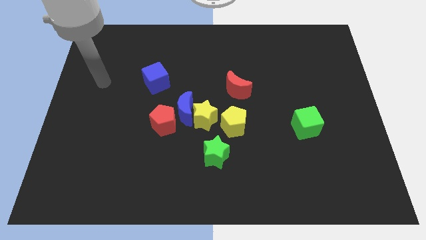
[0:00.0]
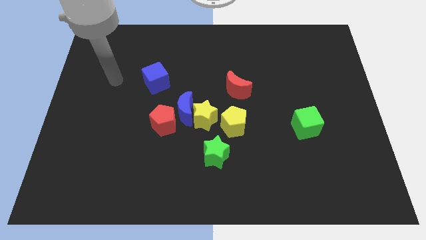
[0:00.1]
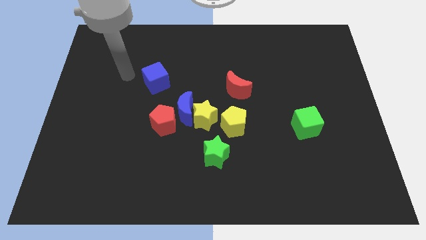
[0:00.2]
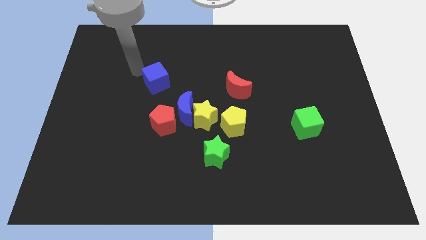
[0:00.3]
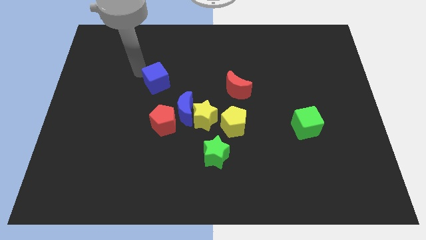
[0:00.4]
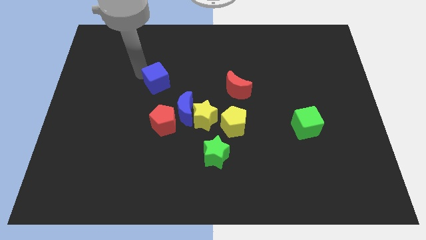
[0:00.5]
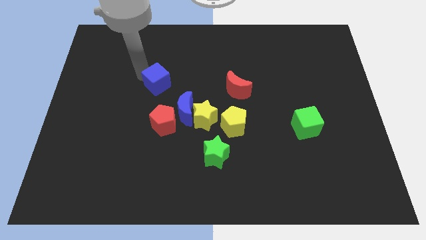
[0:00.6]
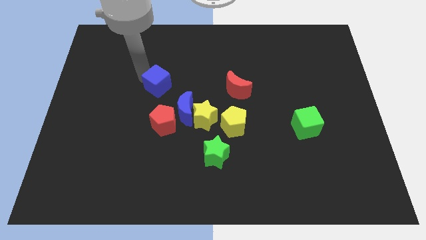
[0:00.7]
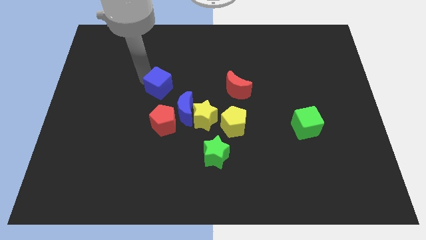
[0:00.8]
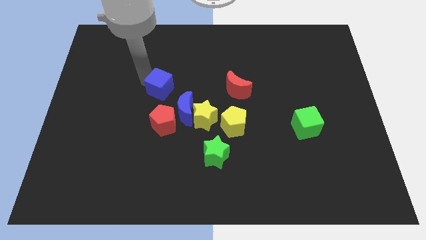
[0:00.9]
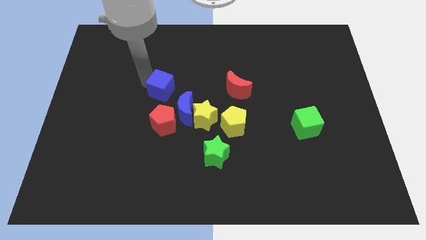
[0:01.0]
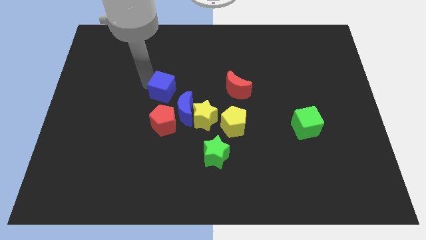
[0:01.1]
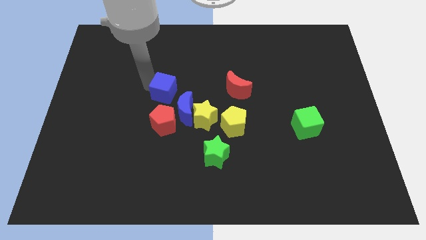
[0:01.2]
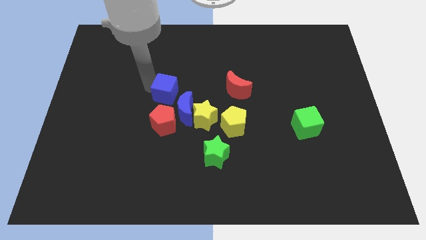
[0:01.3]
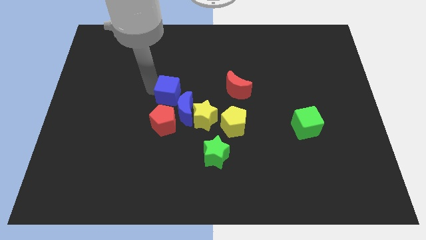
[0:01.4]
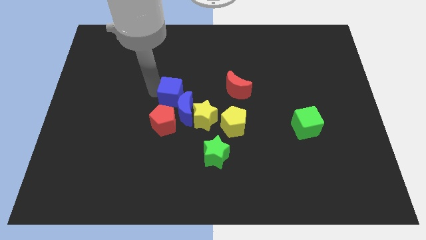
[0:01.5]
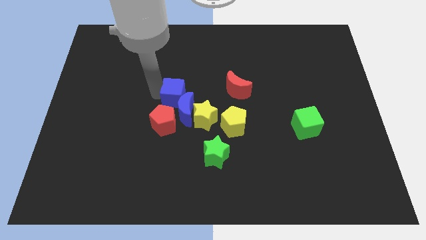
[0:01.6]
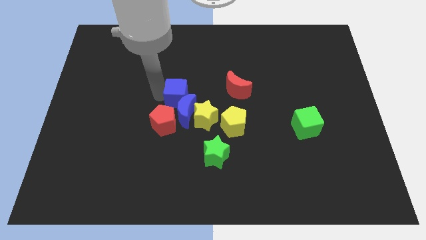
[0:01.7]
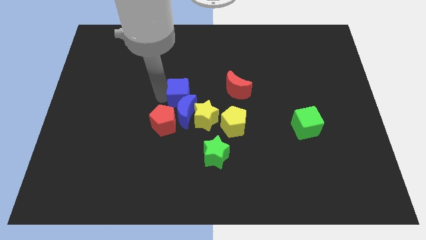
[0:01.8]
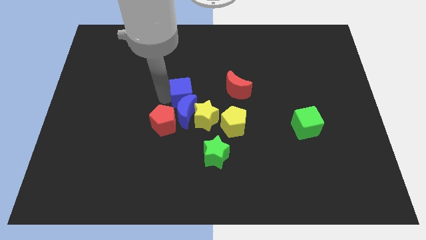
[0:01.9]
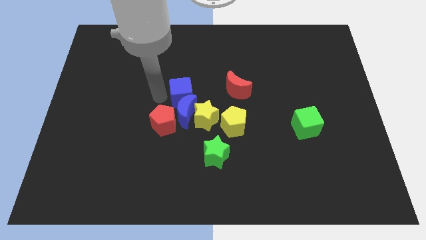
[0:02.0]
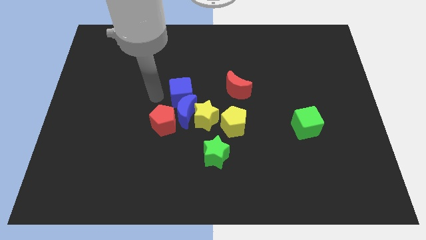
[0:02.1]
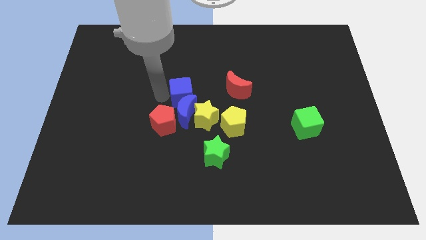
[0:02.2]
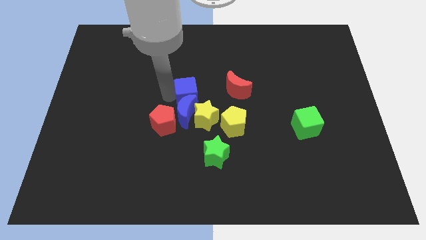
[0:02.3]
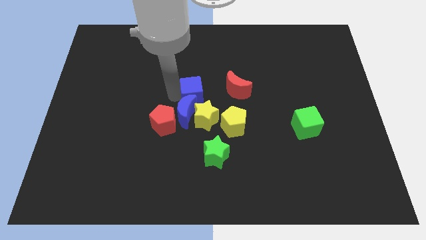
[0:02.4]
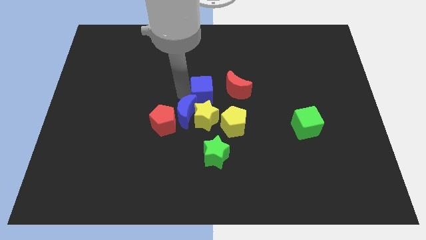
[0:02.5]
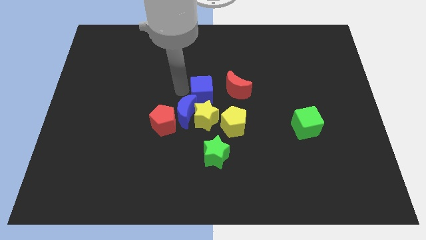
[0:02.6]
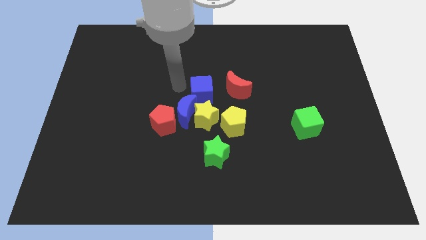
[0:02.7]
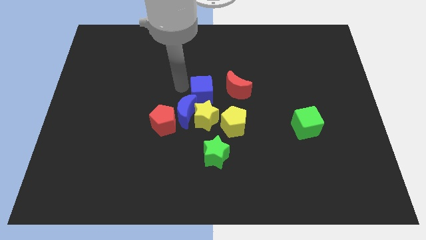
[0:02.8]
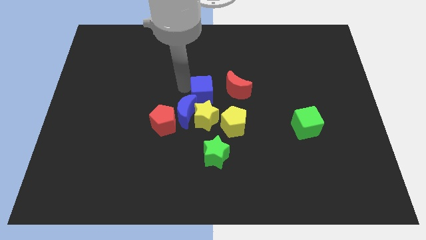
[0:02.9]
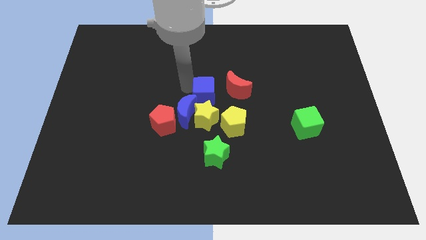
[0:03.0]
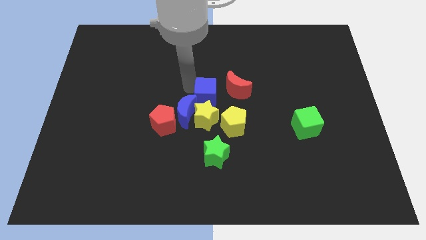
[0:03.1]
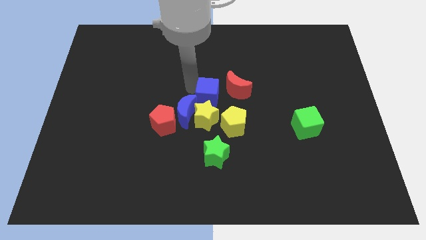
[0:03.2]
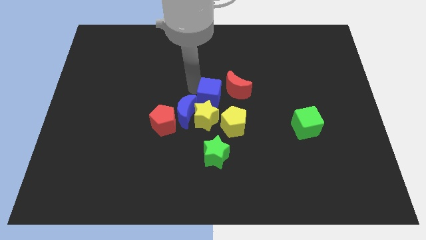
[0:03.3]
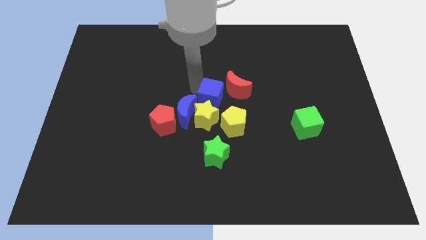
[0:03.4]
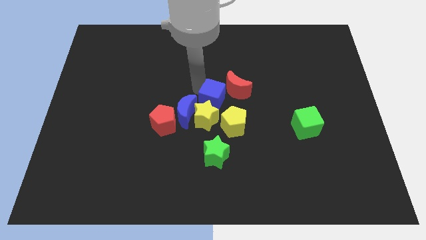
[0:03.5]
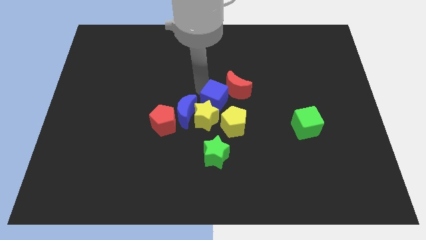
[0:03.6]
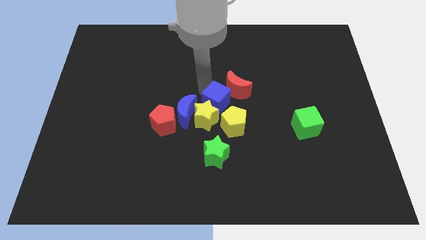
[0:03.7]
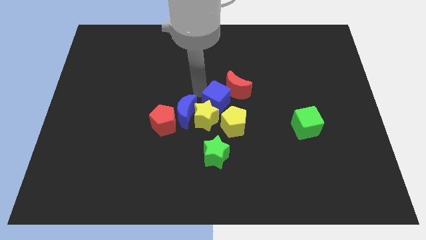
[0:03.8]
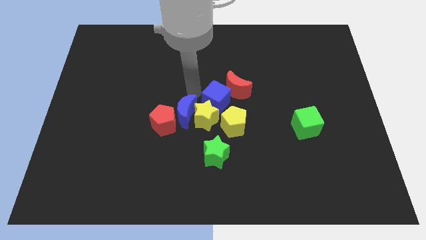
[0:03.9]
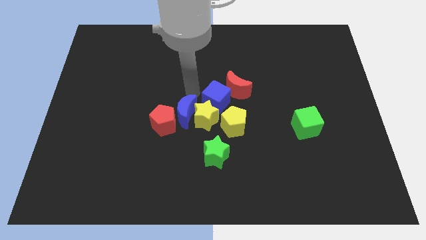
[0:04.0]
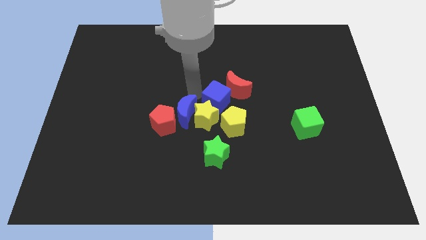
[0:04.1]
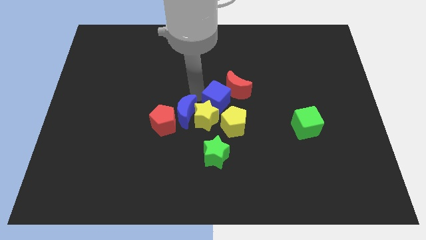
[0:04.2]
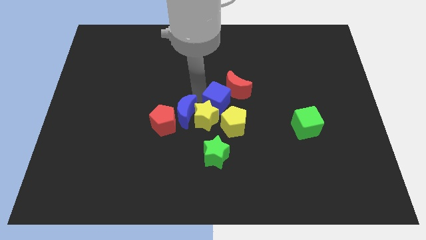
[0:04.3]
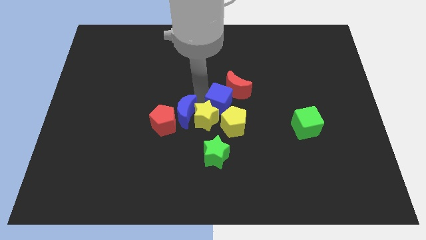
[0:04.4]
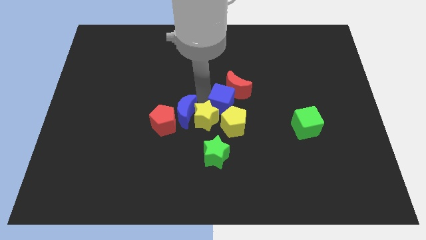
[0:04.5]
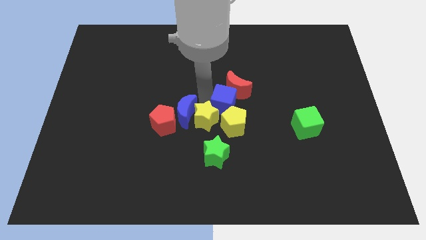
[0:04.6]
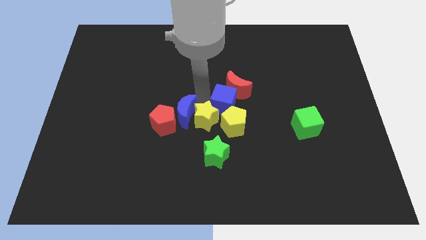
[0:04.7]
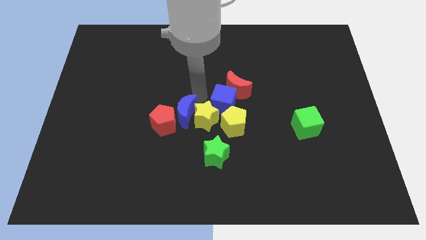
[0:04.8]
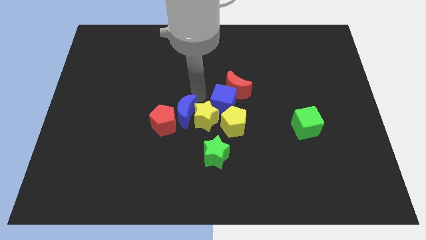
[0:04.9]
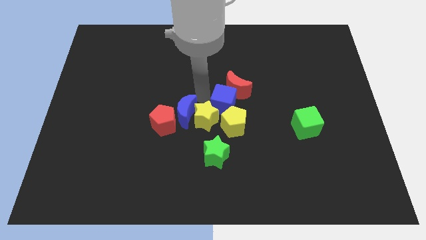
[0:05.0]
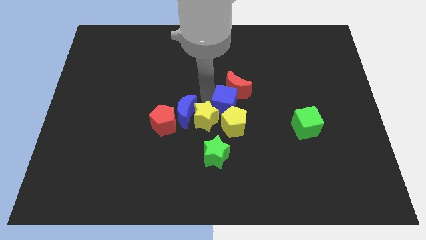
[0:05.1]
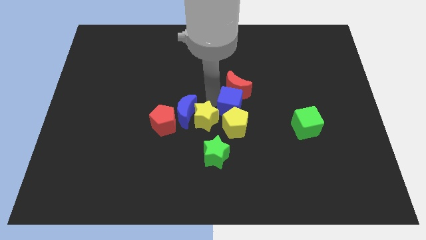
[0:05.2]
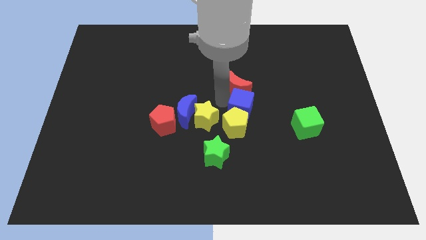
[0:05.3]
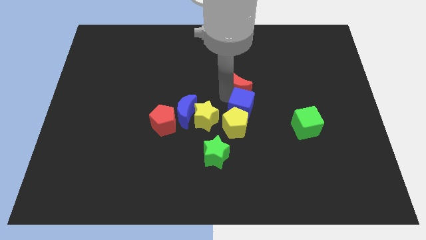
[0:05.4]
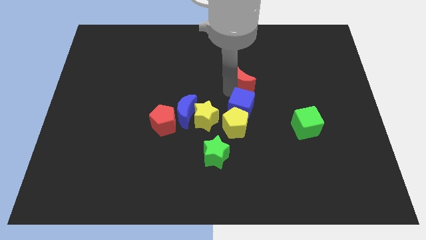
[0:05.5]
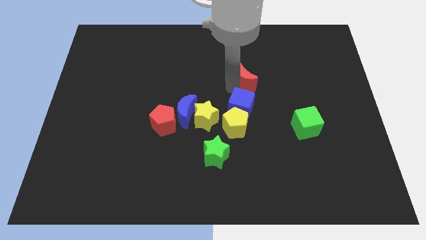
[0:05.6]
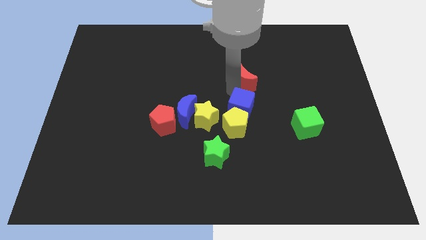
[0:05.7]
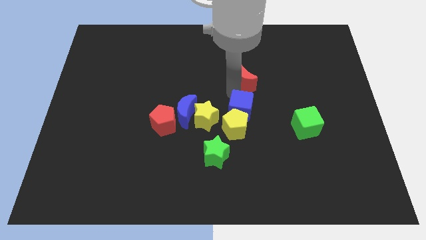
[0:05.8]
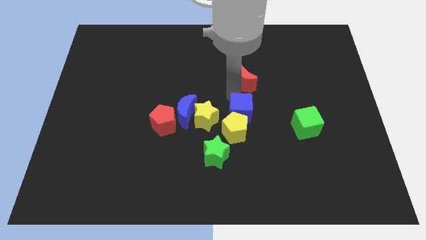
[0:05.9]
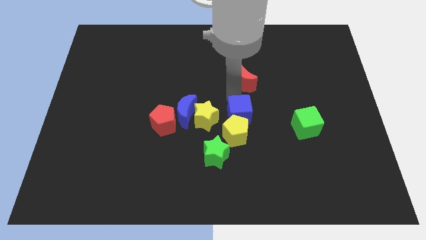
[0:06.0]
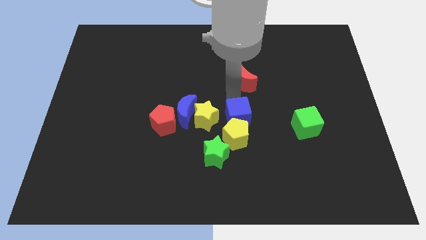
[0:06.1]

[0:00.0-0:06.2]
push the blue cube down and then to the right

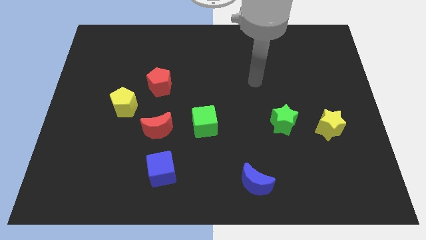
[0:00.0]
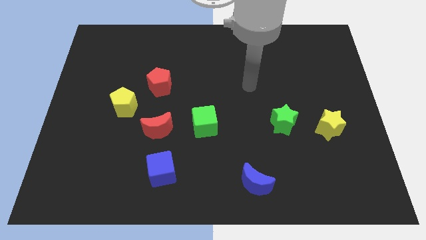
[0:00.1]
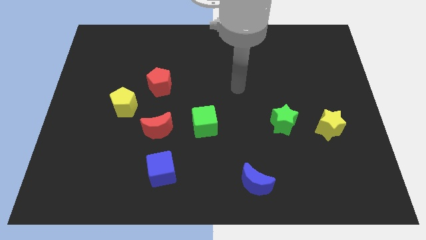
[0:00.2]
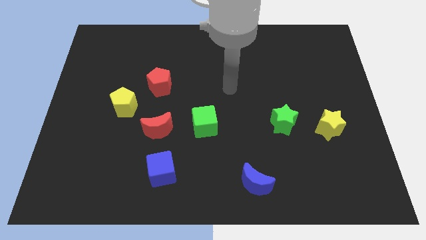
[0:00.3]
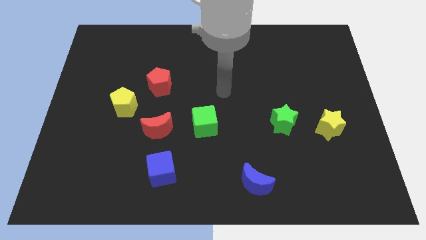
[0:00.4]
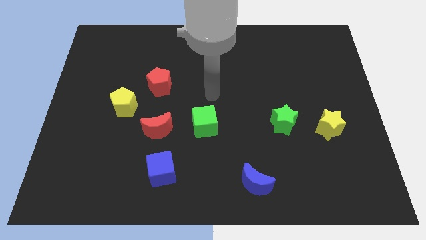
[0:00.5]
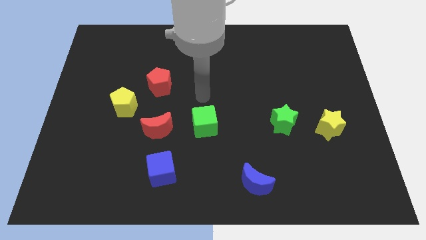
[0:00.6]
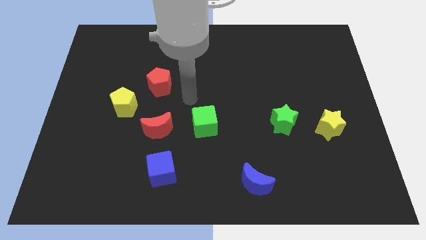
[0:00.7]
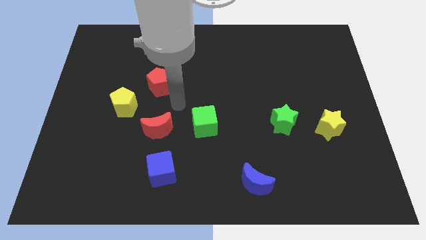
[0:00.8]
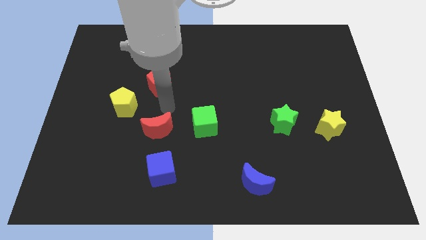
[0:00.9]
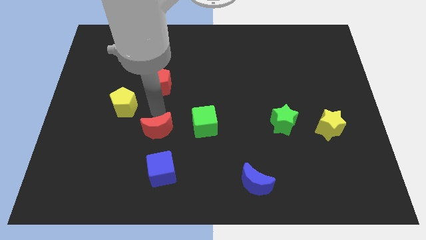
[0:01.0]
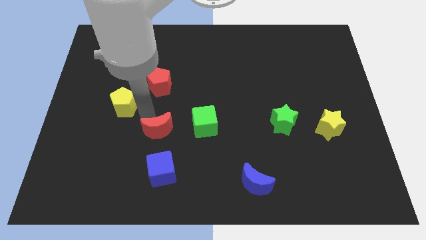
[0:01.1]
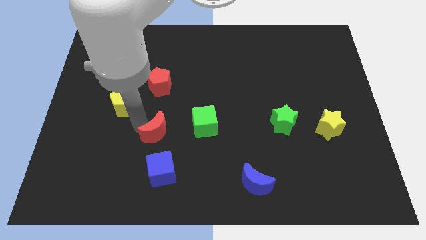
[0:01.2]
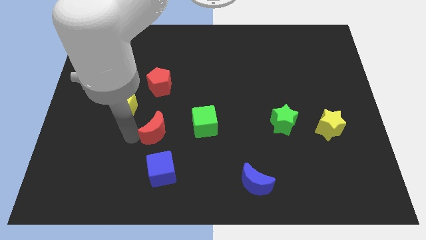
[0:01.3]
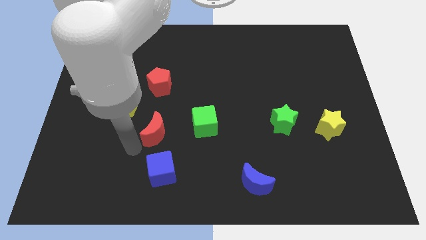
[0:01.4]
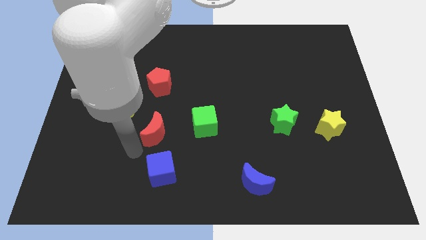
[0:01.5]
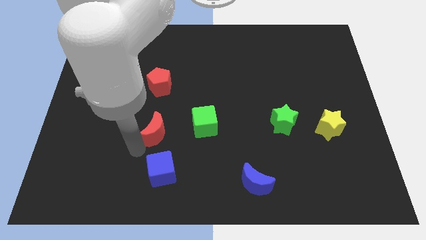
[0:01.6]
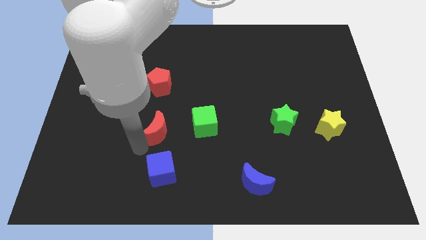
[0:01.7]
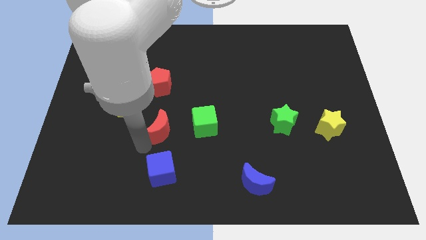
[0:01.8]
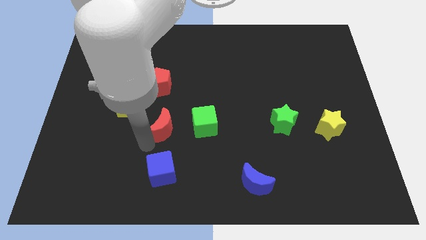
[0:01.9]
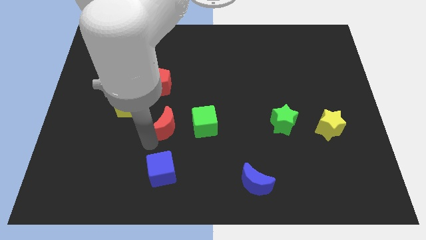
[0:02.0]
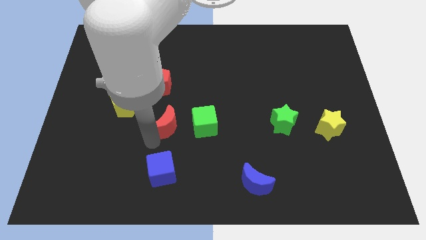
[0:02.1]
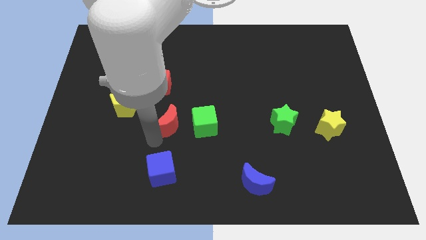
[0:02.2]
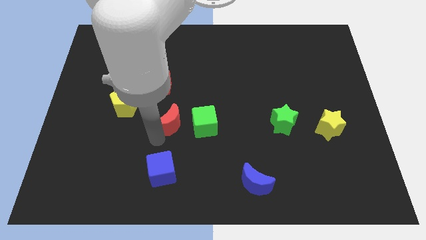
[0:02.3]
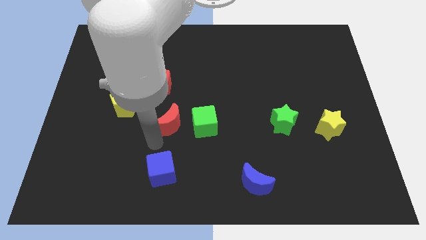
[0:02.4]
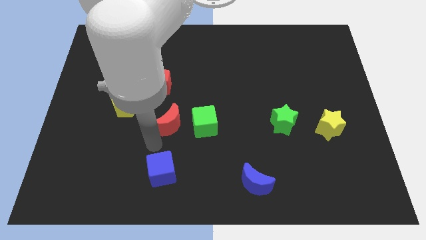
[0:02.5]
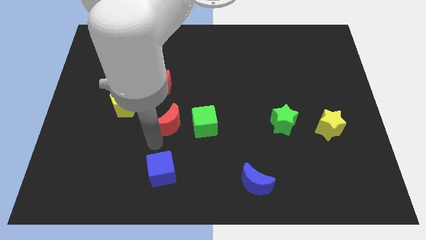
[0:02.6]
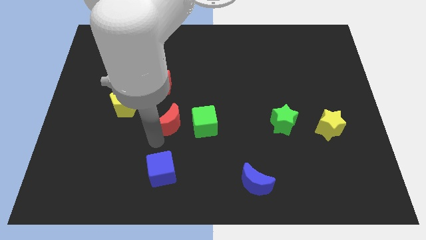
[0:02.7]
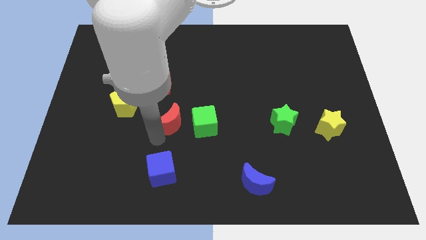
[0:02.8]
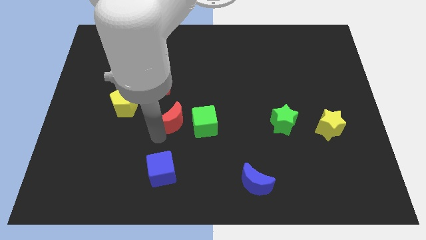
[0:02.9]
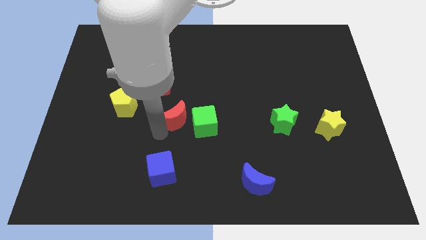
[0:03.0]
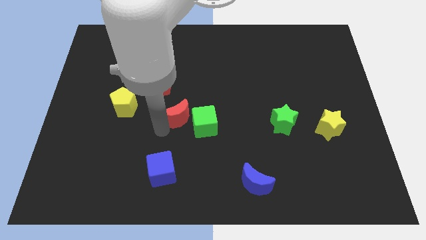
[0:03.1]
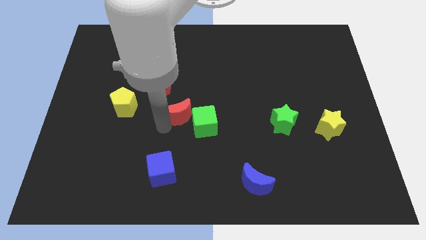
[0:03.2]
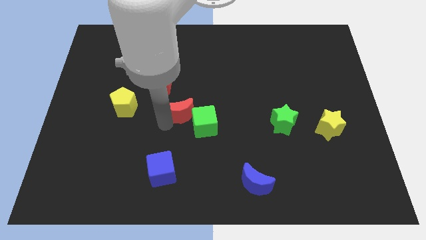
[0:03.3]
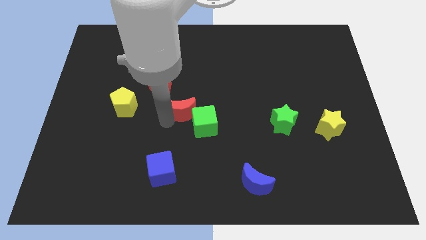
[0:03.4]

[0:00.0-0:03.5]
push the red moon diagonally up and to the right a bit
